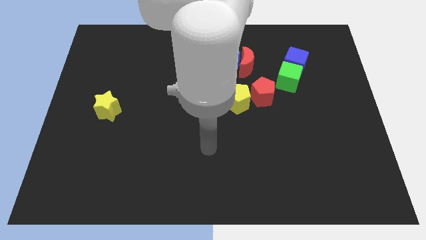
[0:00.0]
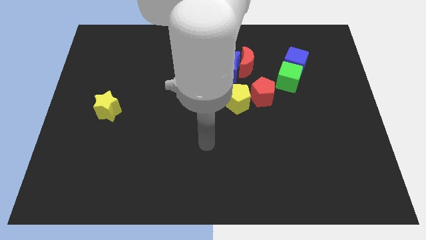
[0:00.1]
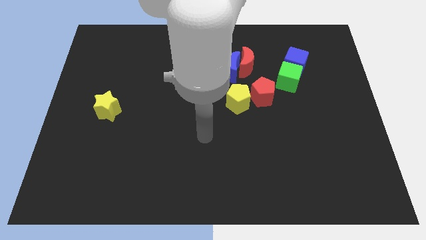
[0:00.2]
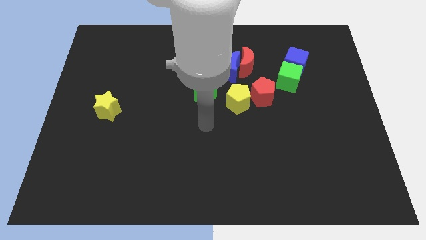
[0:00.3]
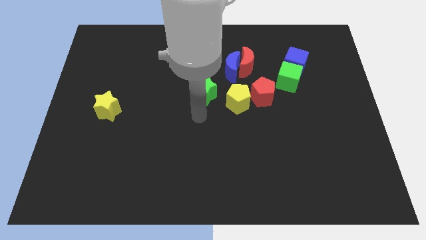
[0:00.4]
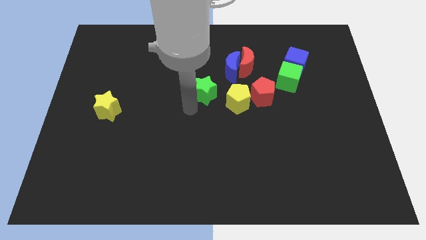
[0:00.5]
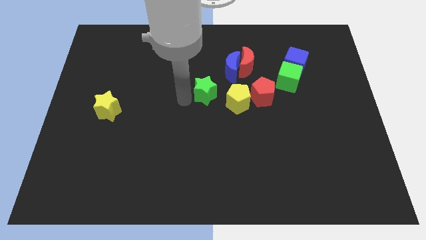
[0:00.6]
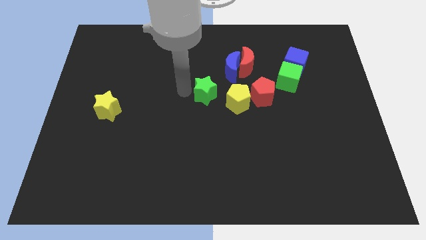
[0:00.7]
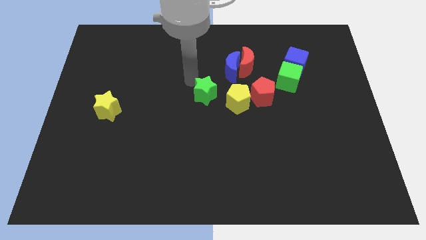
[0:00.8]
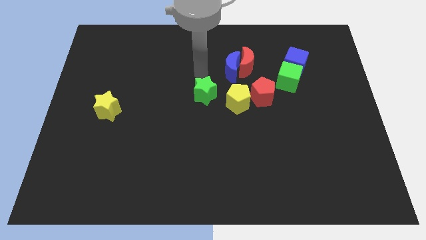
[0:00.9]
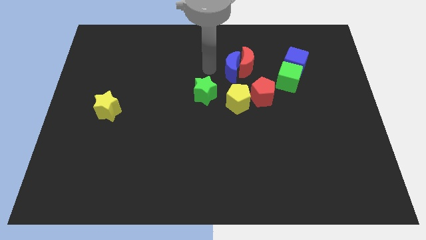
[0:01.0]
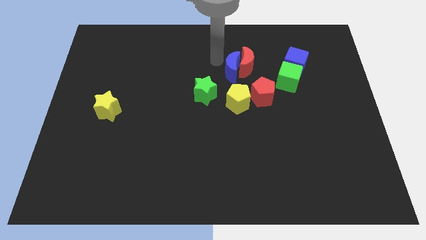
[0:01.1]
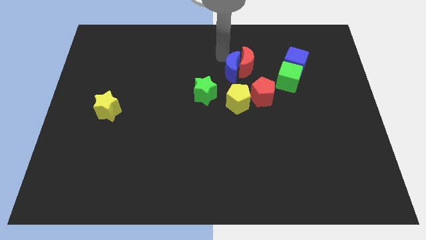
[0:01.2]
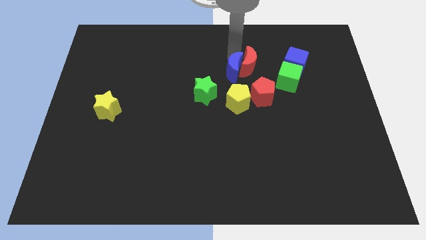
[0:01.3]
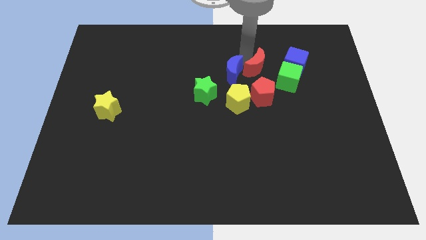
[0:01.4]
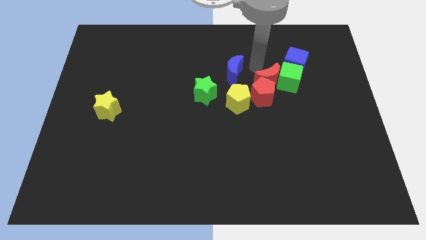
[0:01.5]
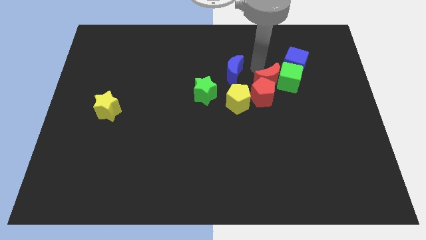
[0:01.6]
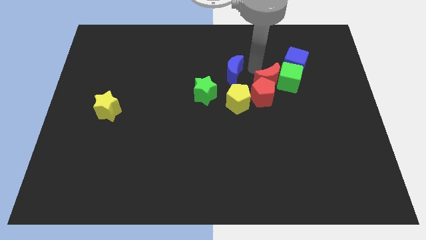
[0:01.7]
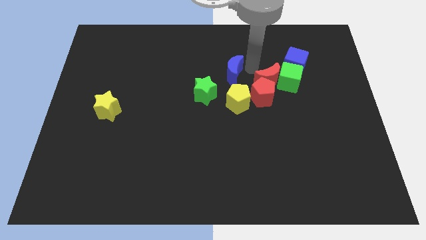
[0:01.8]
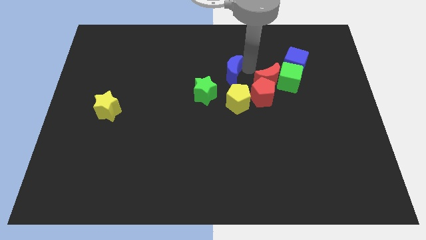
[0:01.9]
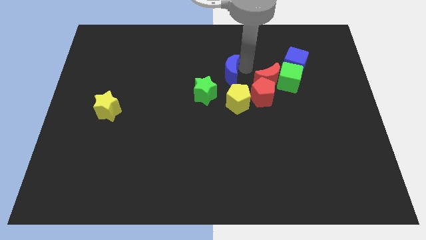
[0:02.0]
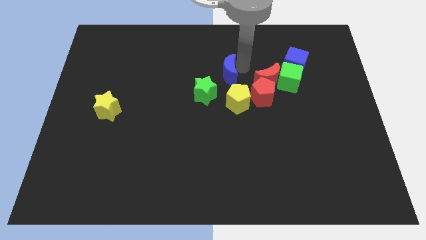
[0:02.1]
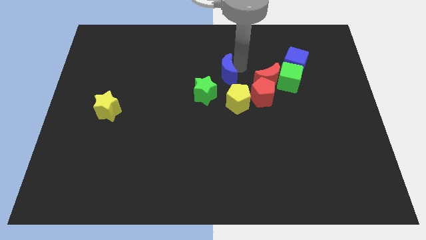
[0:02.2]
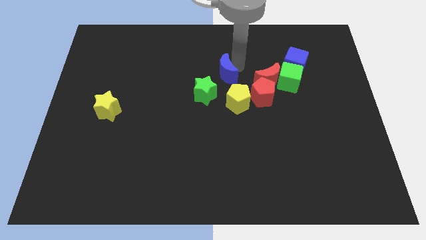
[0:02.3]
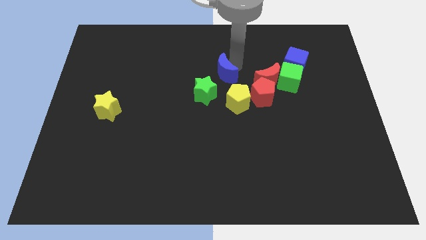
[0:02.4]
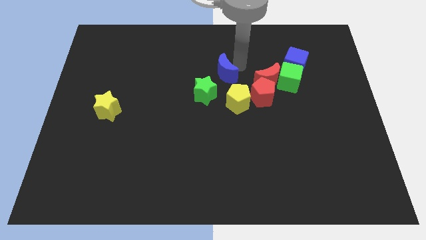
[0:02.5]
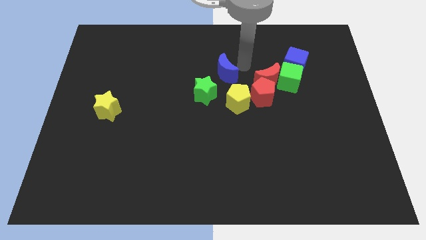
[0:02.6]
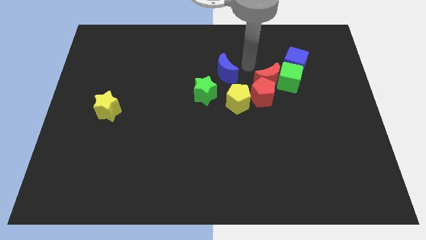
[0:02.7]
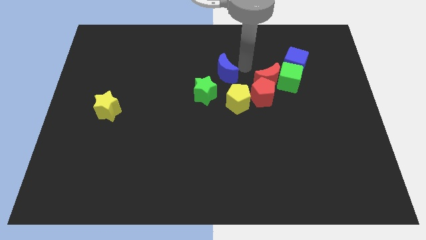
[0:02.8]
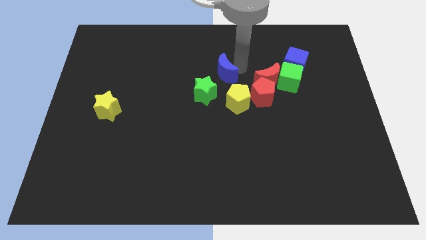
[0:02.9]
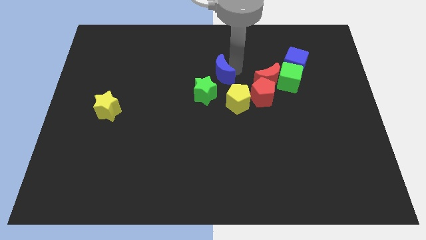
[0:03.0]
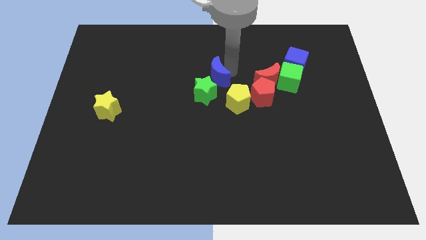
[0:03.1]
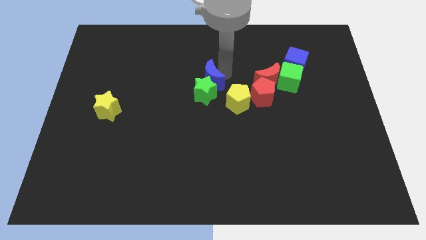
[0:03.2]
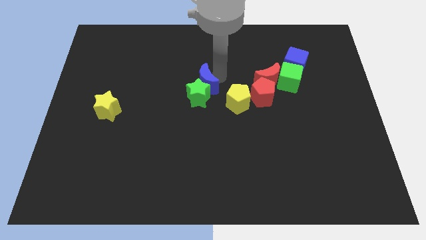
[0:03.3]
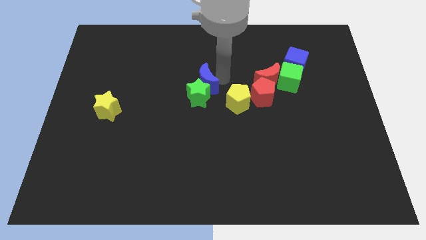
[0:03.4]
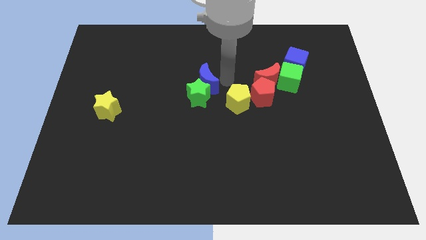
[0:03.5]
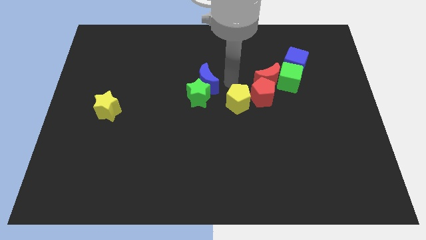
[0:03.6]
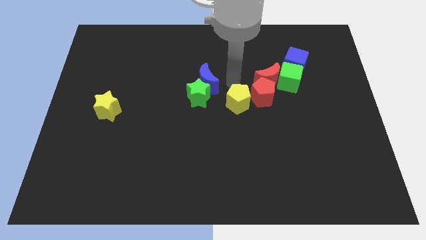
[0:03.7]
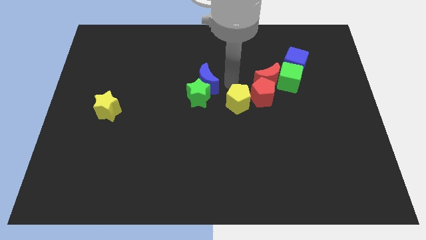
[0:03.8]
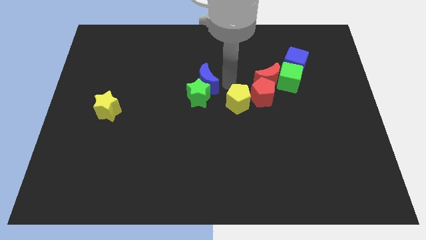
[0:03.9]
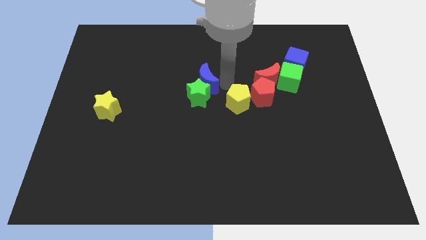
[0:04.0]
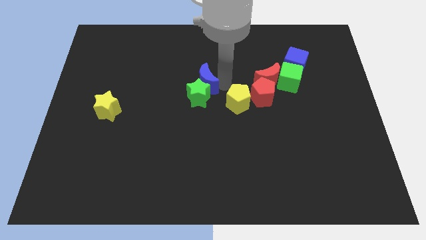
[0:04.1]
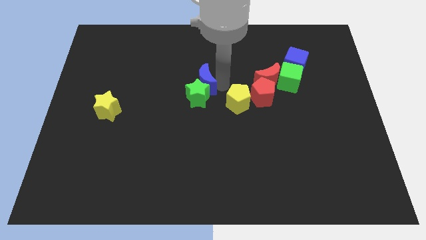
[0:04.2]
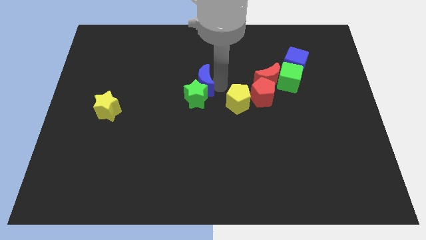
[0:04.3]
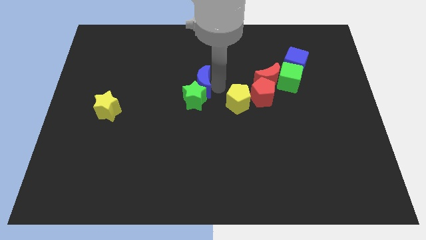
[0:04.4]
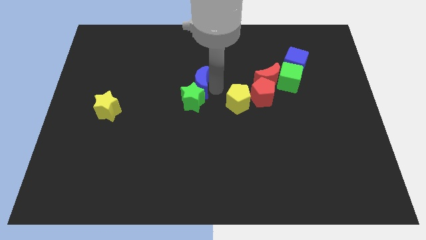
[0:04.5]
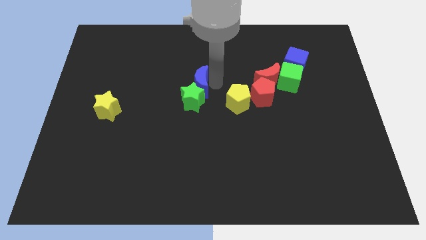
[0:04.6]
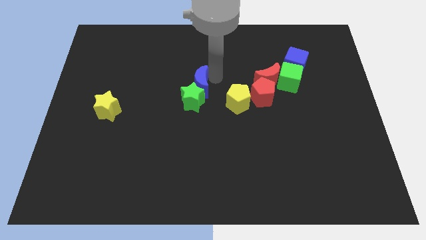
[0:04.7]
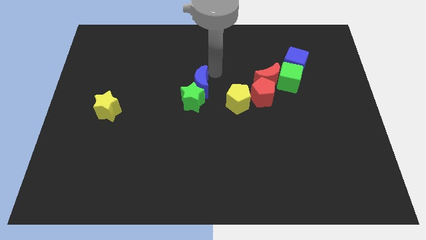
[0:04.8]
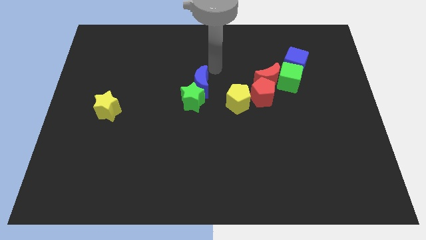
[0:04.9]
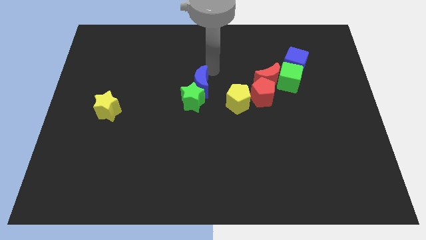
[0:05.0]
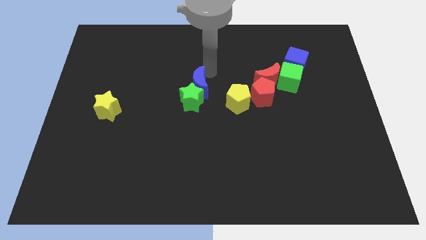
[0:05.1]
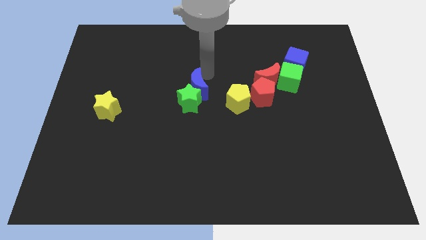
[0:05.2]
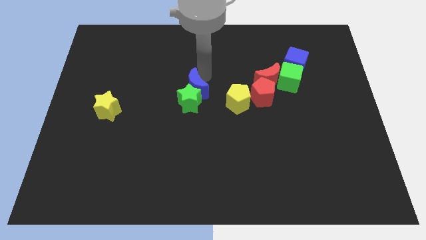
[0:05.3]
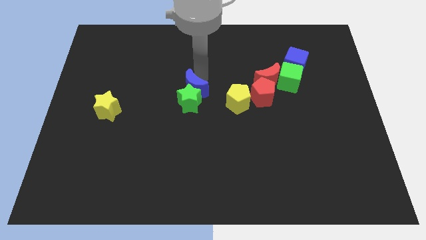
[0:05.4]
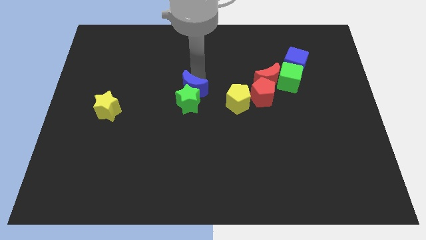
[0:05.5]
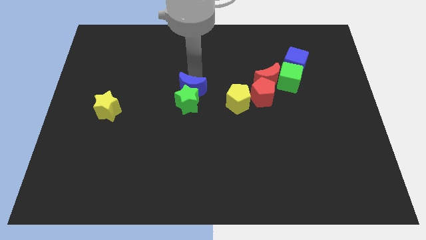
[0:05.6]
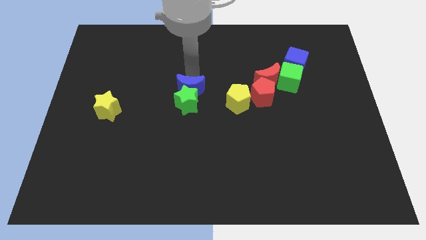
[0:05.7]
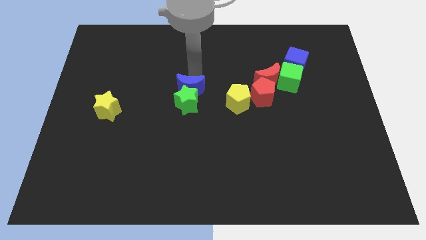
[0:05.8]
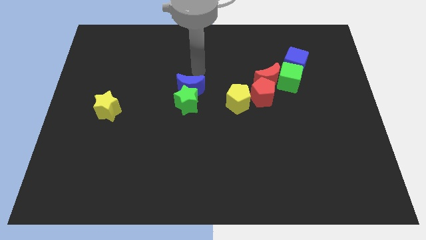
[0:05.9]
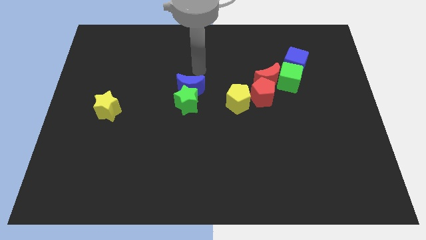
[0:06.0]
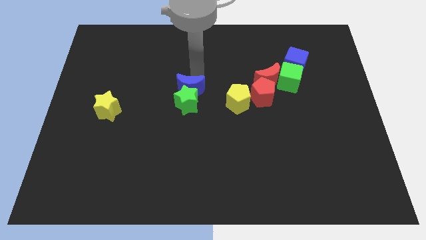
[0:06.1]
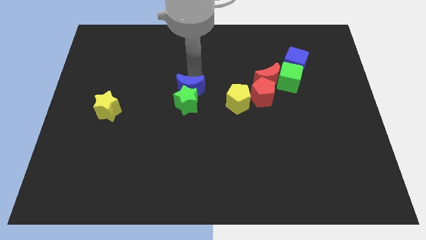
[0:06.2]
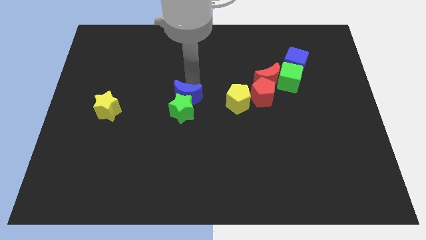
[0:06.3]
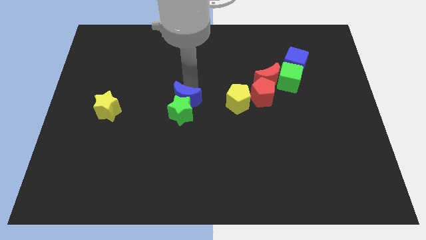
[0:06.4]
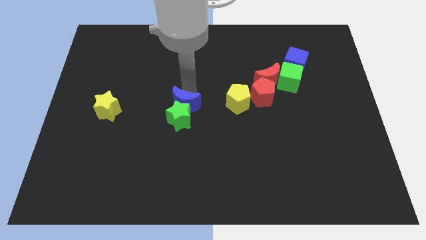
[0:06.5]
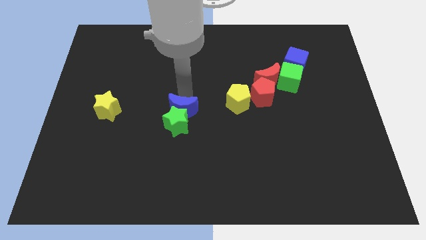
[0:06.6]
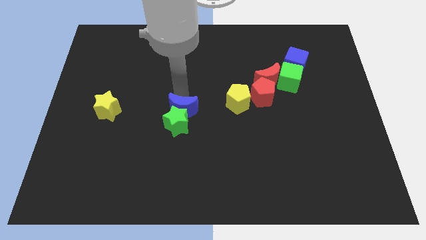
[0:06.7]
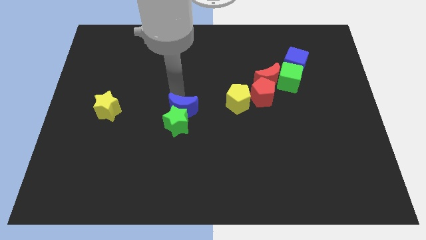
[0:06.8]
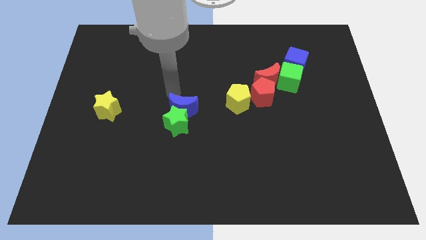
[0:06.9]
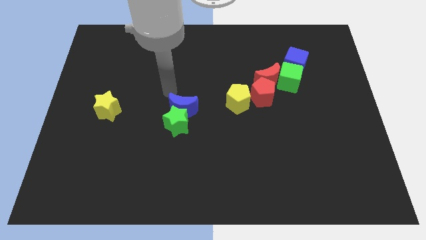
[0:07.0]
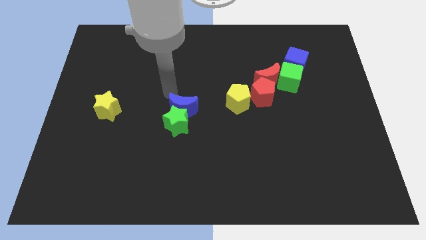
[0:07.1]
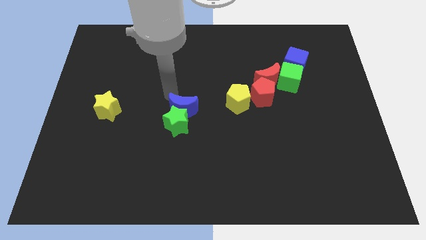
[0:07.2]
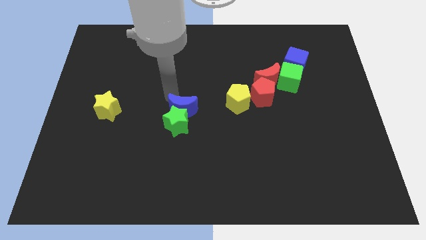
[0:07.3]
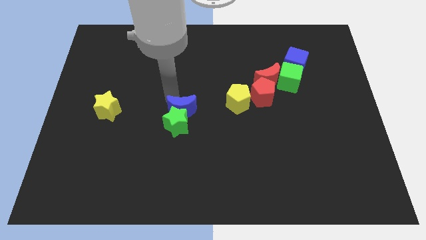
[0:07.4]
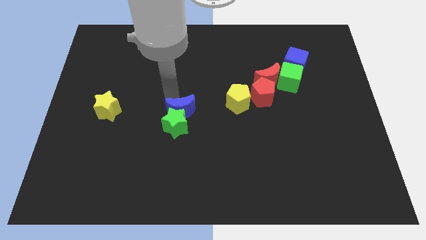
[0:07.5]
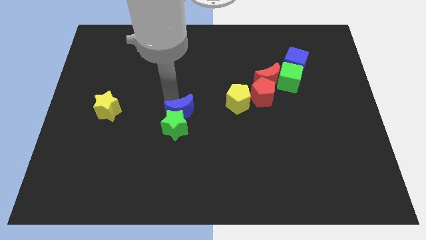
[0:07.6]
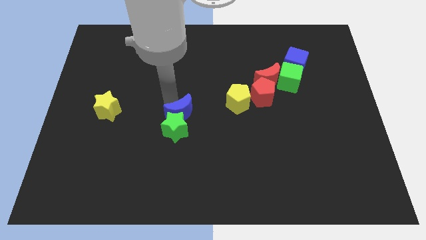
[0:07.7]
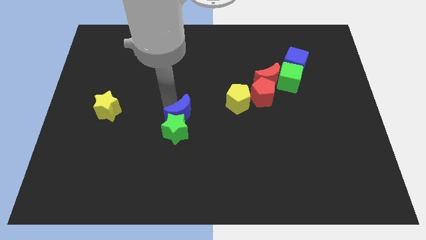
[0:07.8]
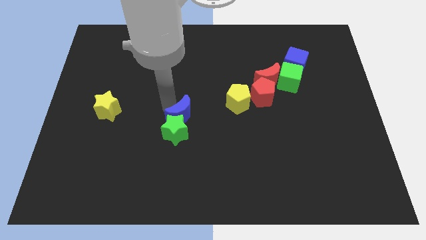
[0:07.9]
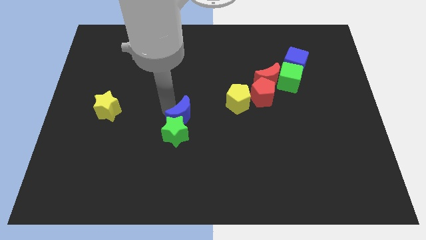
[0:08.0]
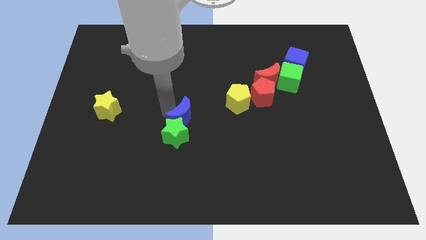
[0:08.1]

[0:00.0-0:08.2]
push the blue moon a little bit downwards
